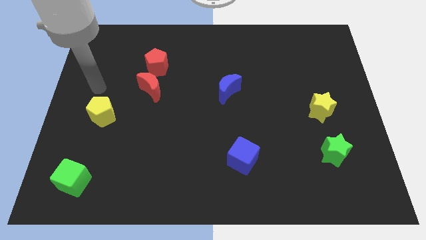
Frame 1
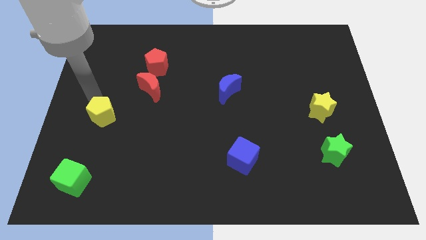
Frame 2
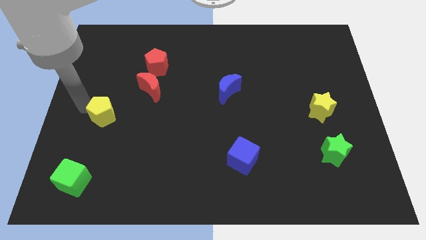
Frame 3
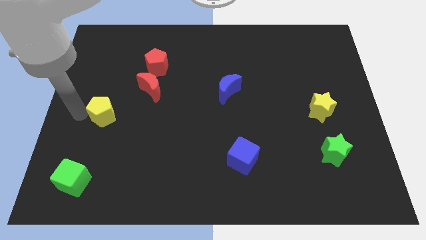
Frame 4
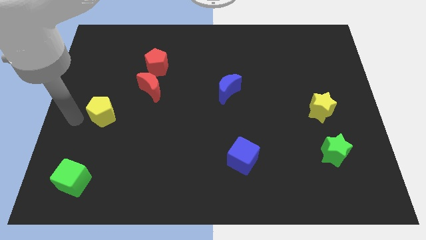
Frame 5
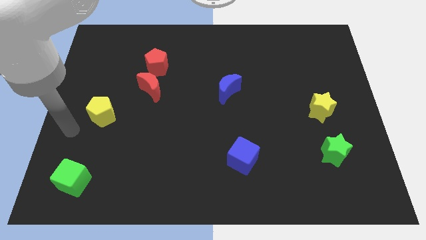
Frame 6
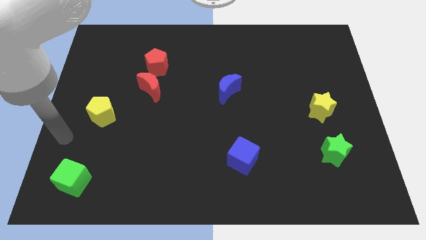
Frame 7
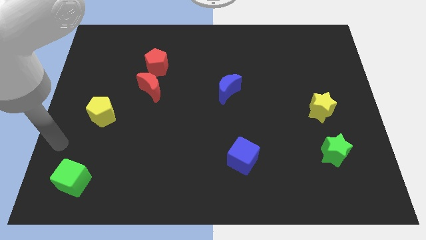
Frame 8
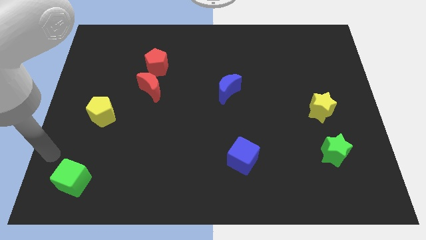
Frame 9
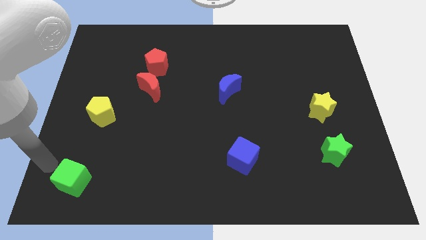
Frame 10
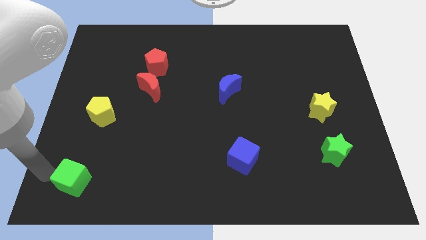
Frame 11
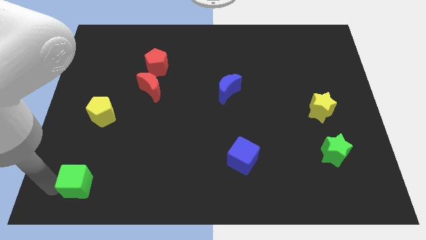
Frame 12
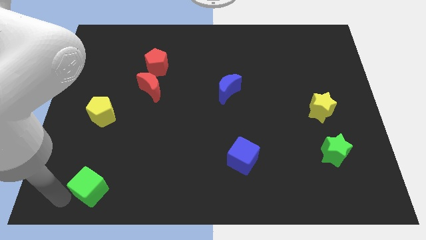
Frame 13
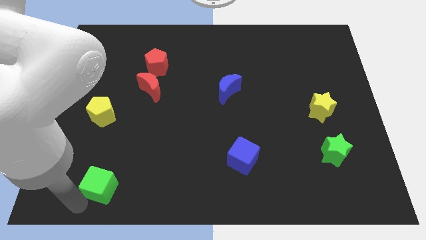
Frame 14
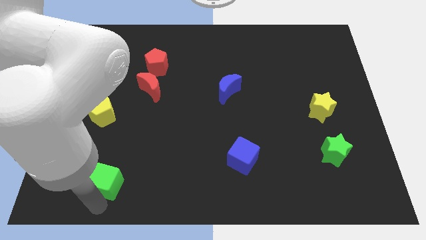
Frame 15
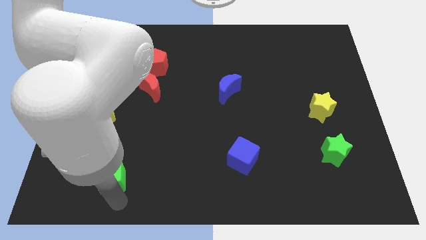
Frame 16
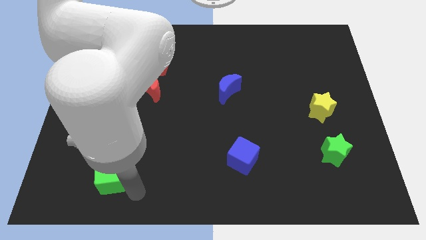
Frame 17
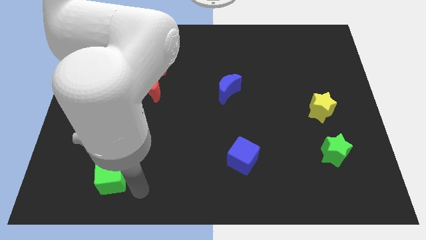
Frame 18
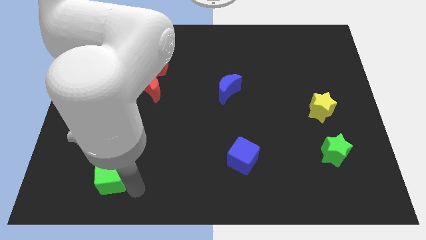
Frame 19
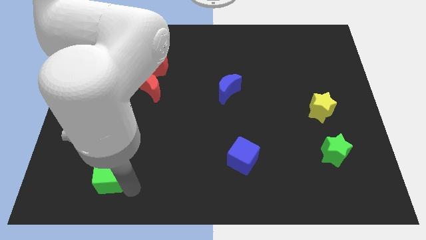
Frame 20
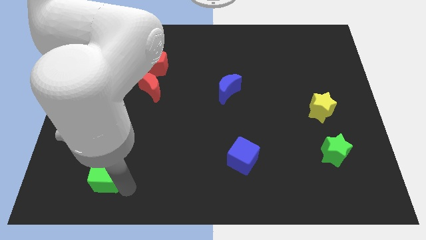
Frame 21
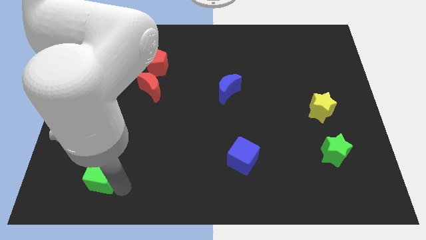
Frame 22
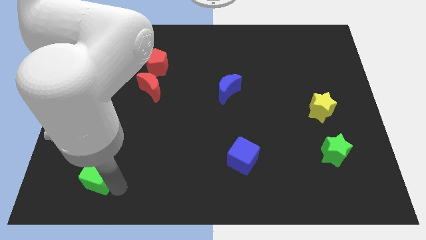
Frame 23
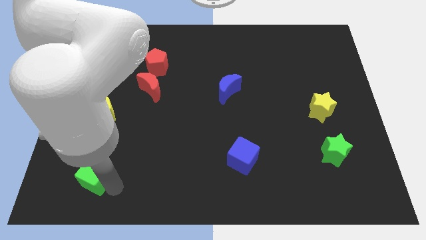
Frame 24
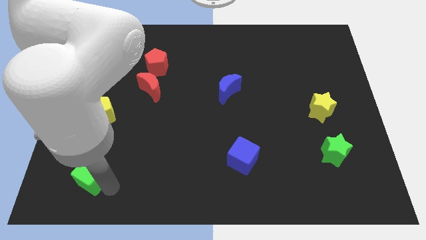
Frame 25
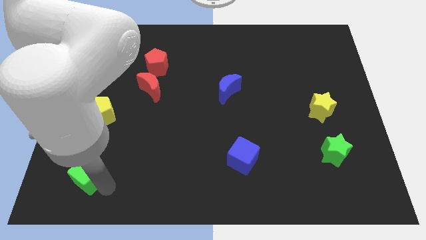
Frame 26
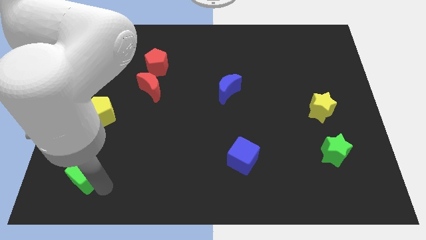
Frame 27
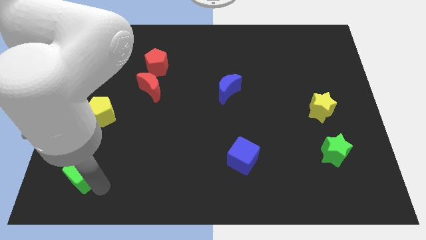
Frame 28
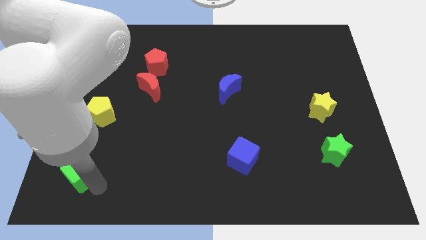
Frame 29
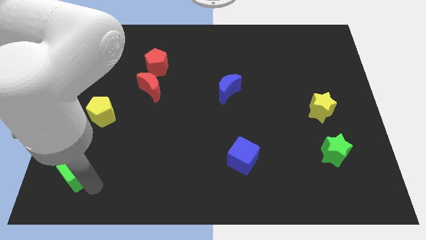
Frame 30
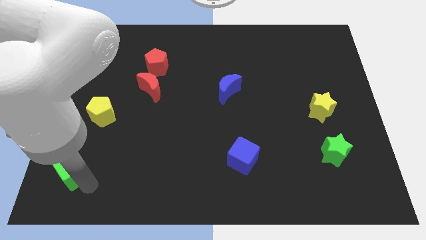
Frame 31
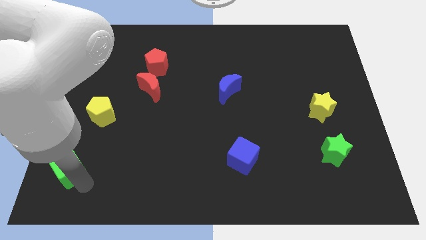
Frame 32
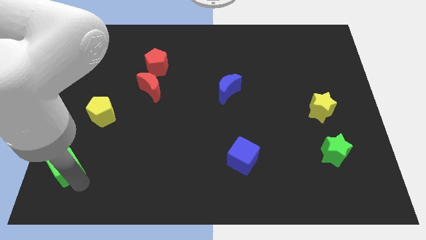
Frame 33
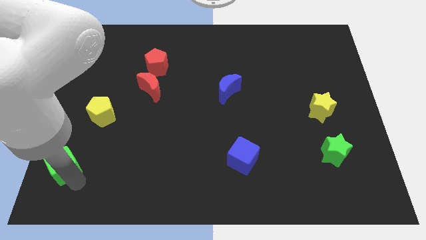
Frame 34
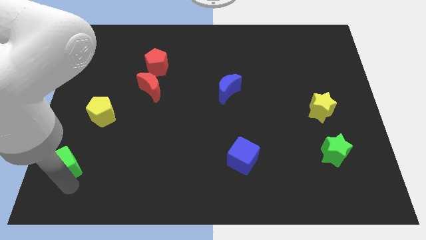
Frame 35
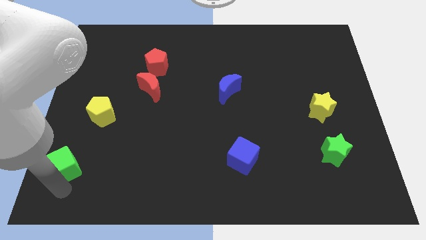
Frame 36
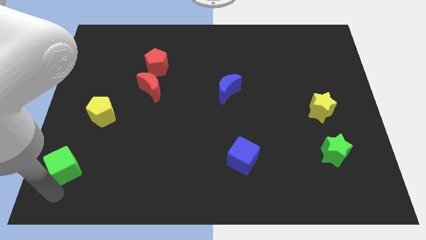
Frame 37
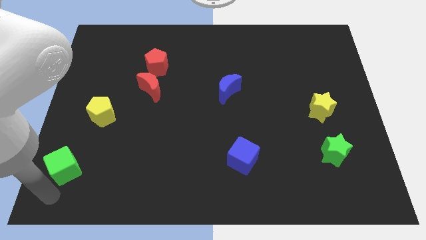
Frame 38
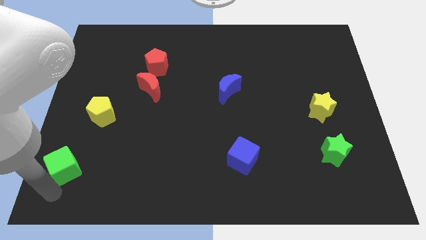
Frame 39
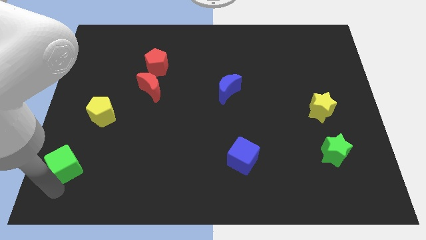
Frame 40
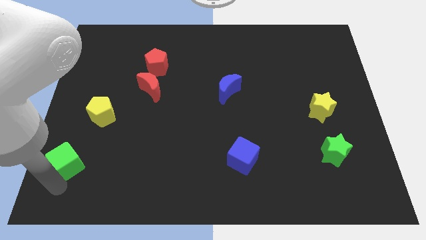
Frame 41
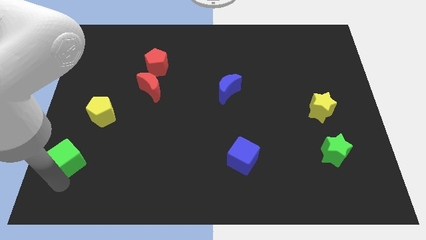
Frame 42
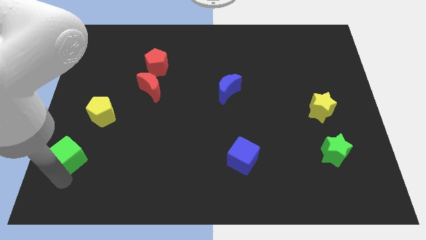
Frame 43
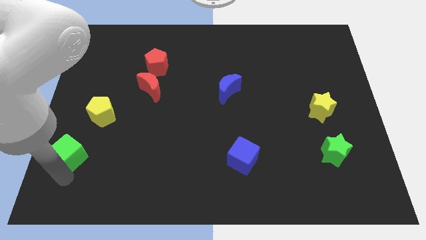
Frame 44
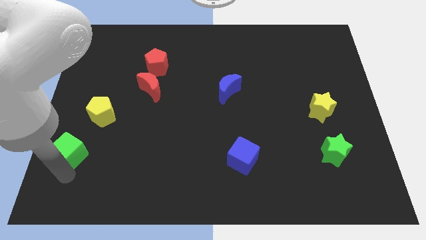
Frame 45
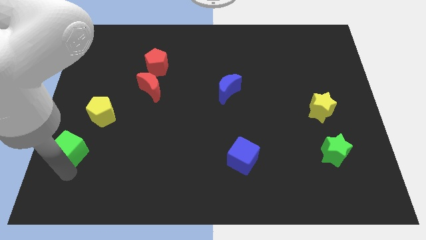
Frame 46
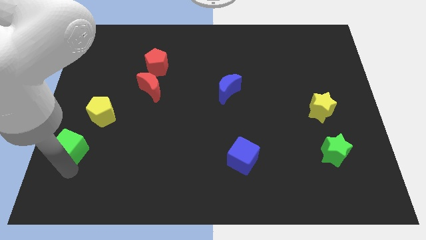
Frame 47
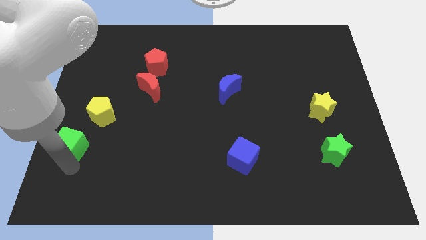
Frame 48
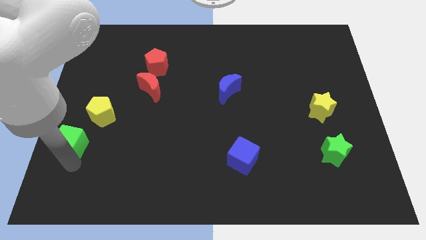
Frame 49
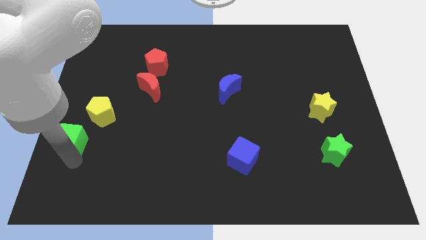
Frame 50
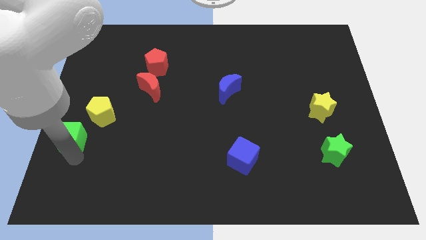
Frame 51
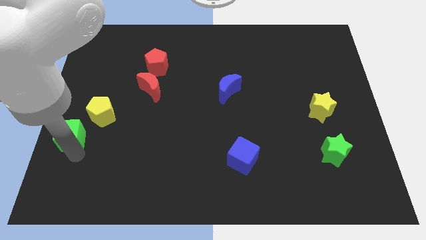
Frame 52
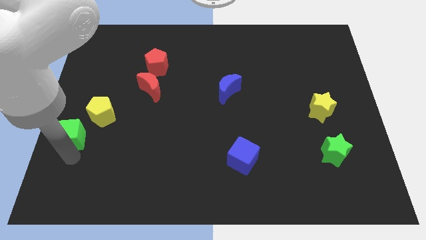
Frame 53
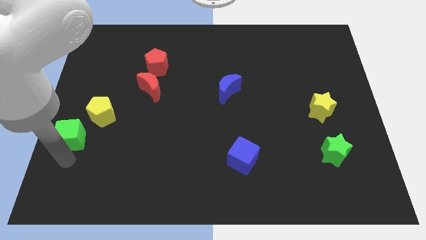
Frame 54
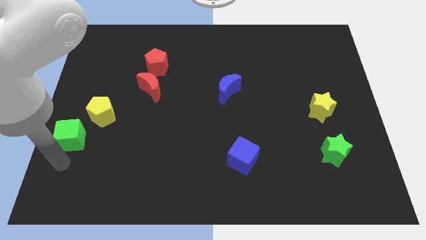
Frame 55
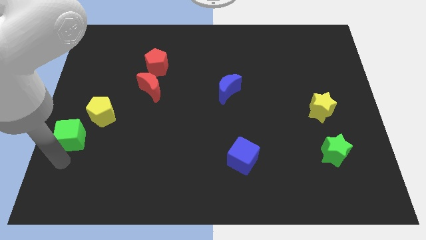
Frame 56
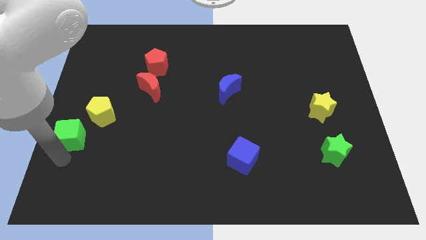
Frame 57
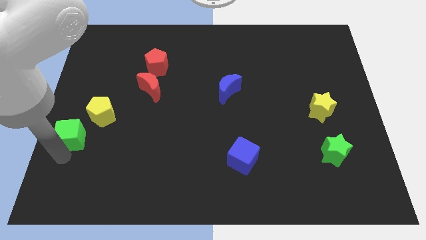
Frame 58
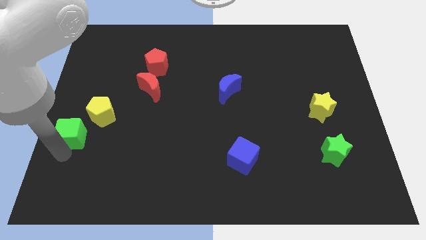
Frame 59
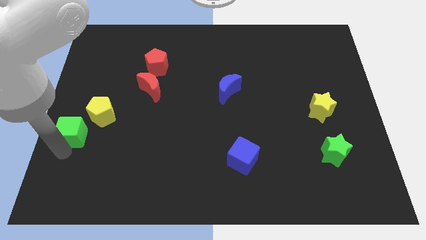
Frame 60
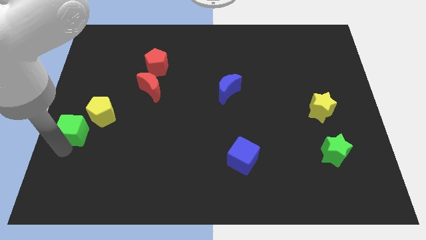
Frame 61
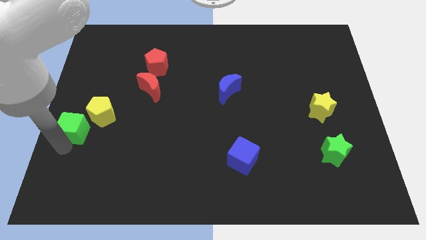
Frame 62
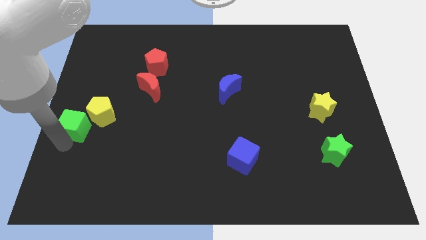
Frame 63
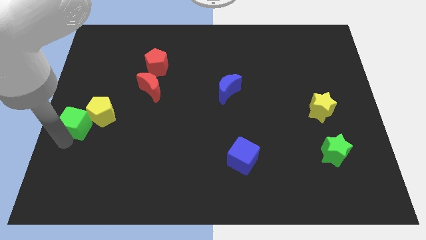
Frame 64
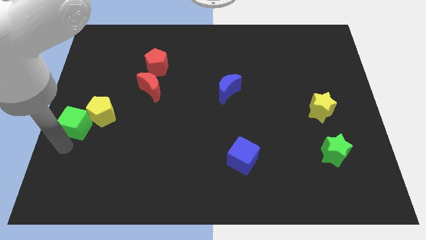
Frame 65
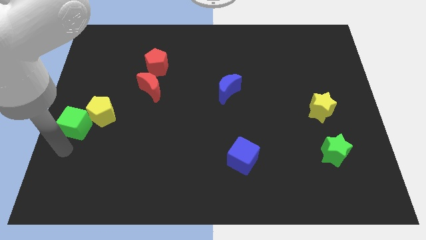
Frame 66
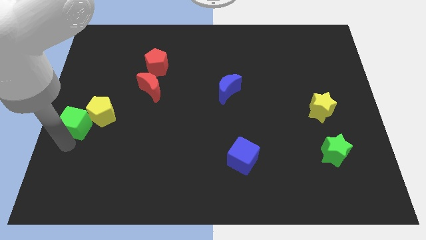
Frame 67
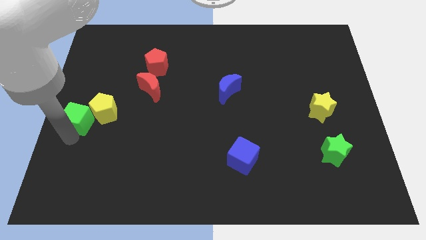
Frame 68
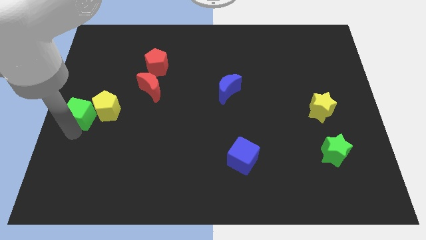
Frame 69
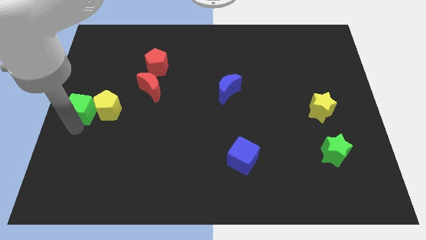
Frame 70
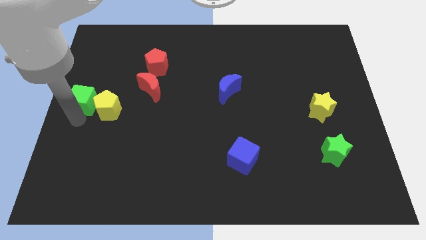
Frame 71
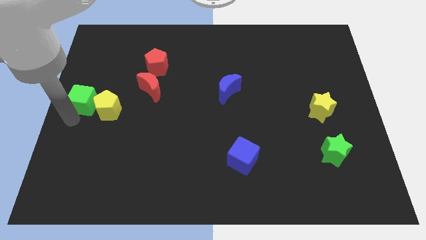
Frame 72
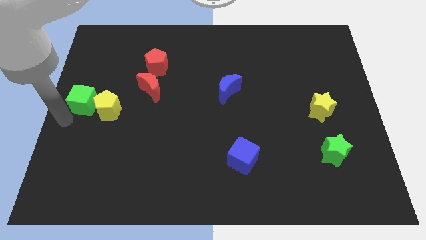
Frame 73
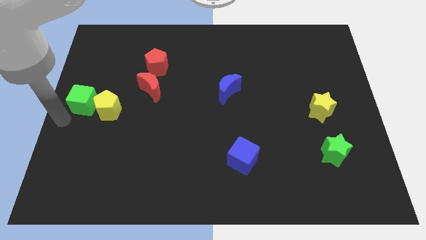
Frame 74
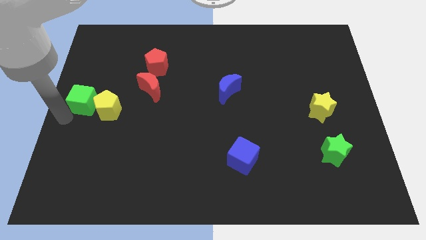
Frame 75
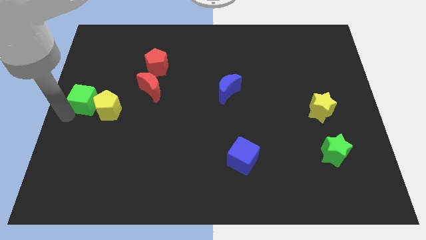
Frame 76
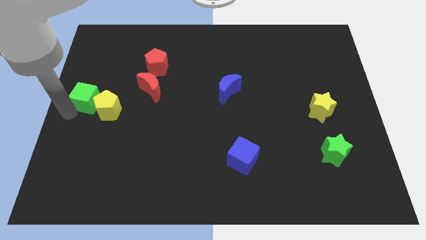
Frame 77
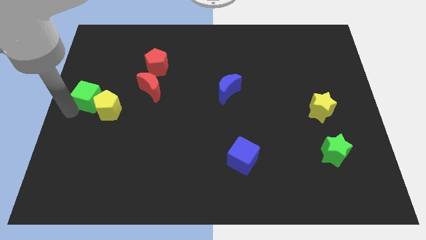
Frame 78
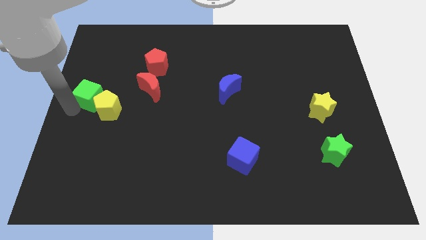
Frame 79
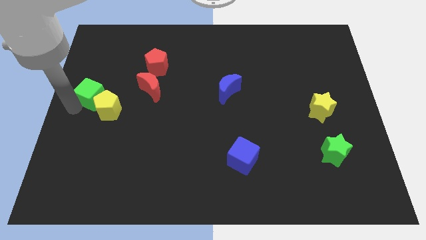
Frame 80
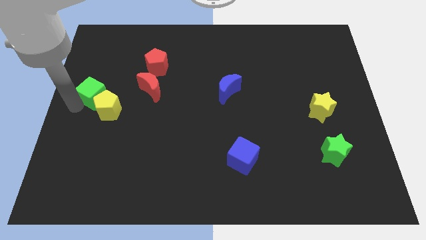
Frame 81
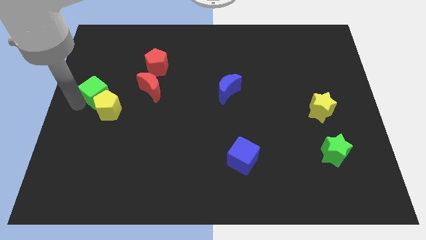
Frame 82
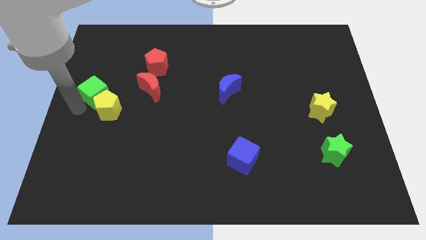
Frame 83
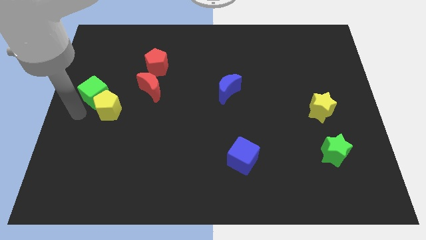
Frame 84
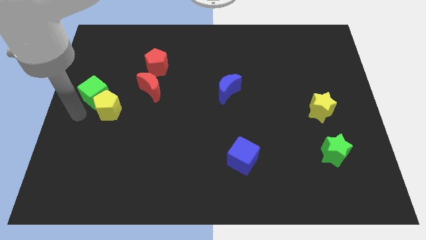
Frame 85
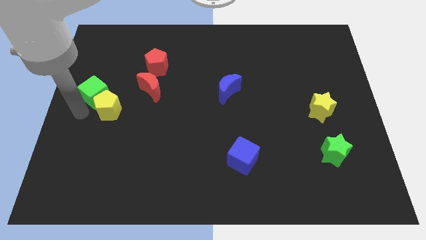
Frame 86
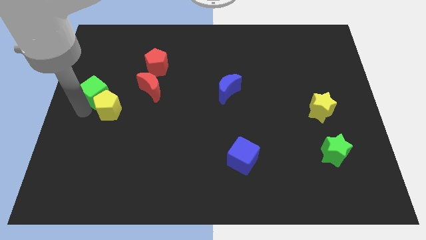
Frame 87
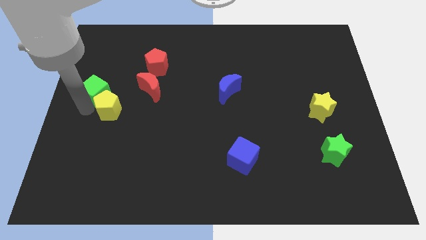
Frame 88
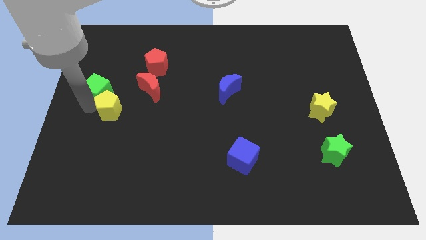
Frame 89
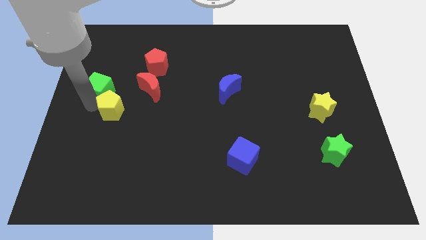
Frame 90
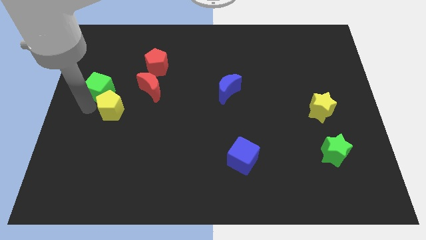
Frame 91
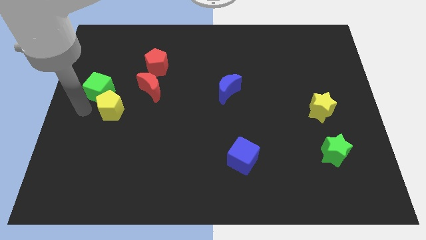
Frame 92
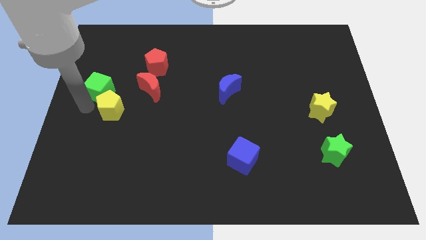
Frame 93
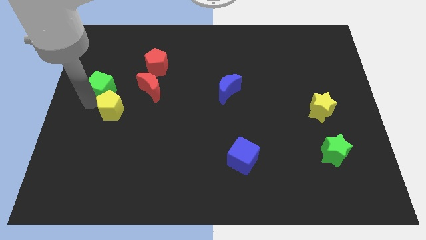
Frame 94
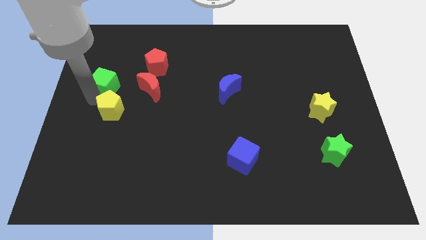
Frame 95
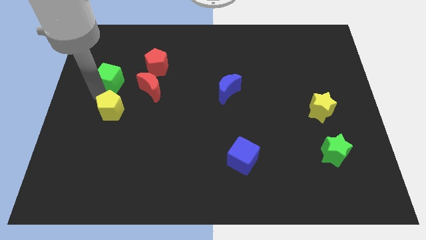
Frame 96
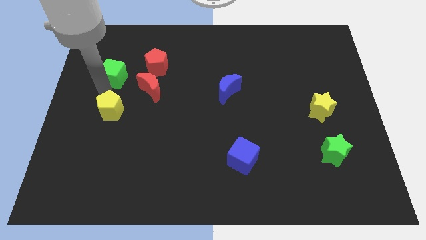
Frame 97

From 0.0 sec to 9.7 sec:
push the green cube to the left side of the red pentagon
